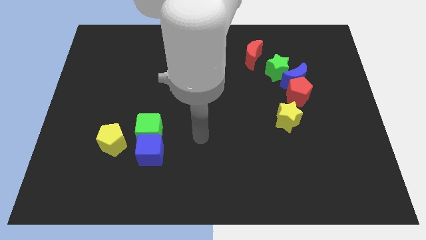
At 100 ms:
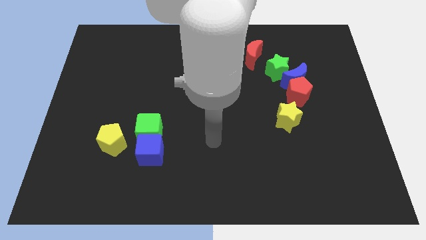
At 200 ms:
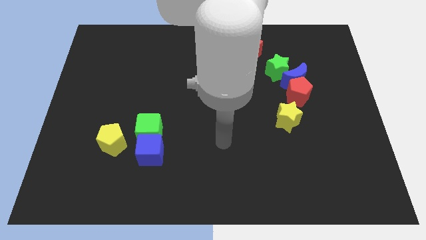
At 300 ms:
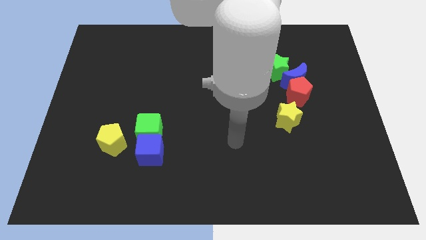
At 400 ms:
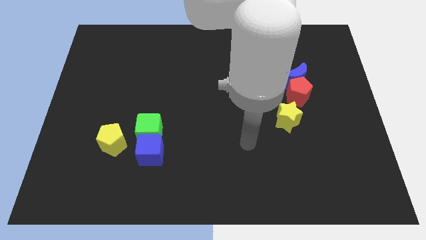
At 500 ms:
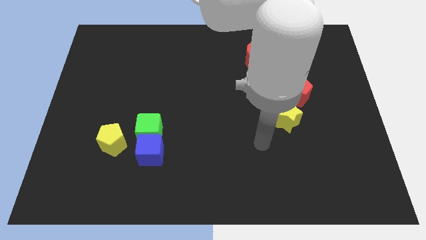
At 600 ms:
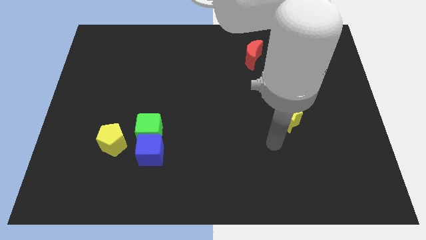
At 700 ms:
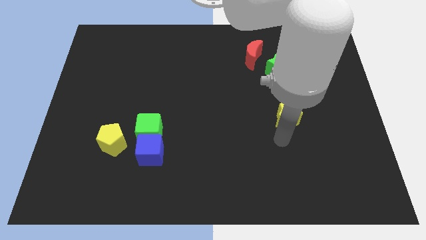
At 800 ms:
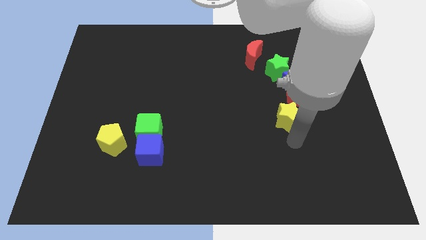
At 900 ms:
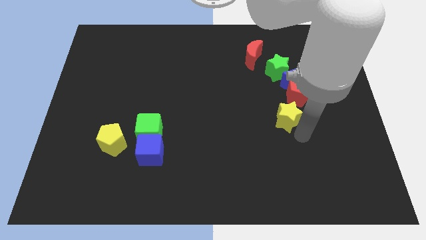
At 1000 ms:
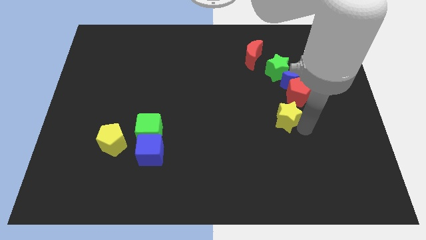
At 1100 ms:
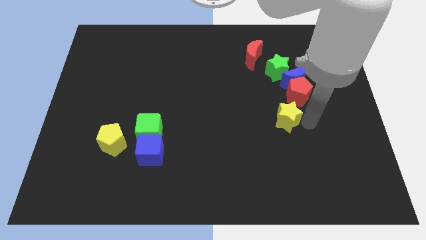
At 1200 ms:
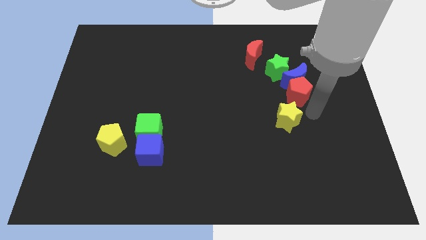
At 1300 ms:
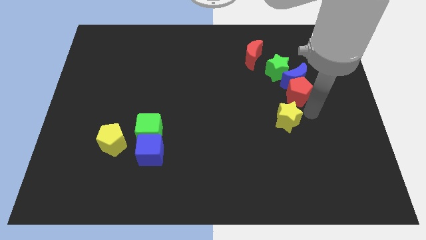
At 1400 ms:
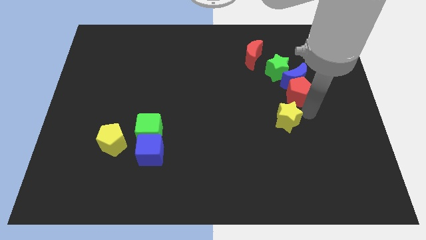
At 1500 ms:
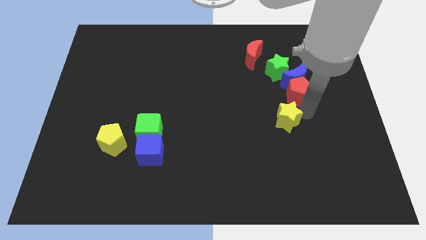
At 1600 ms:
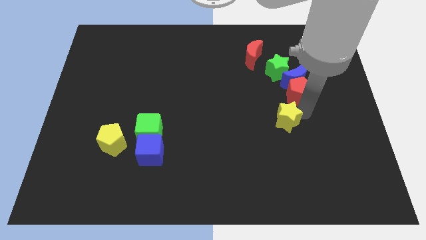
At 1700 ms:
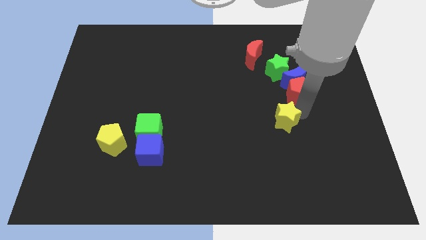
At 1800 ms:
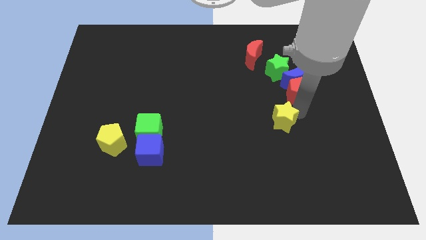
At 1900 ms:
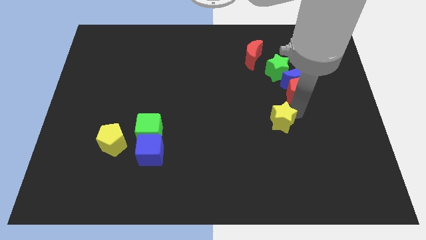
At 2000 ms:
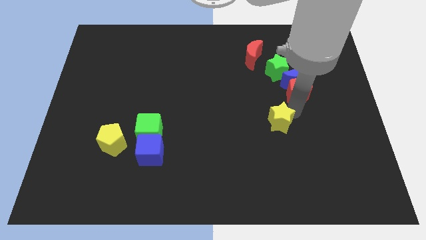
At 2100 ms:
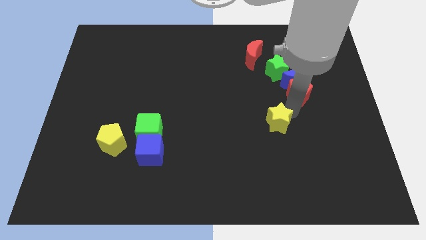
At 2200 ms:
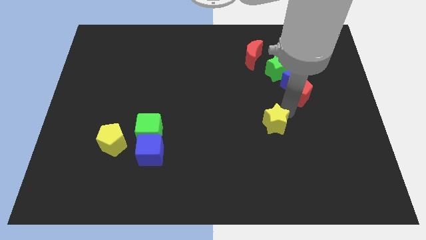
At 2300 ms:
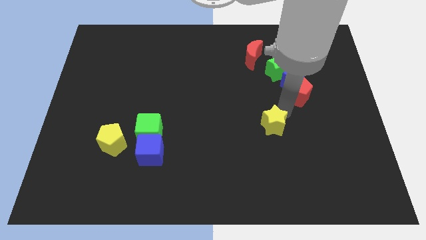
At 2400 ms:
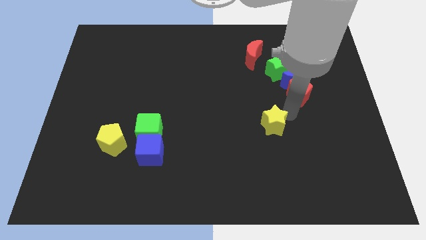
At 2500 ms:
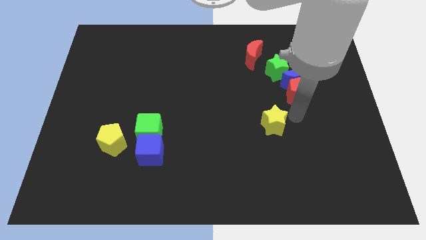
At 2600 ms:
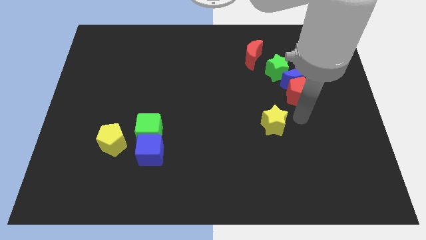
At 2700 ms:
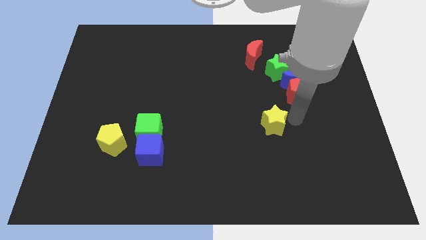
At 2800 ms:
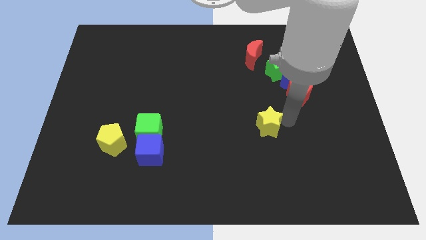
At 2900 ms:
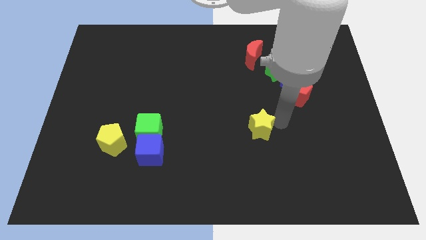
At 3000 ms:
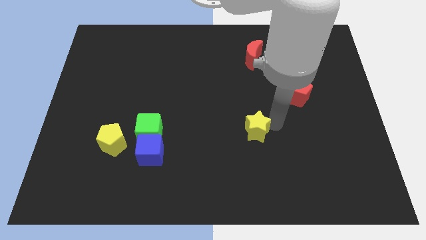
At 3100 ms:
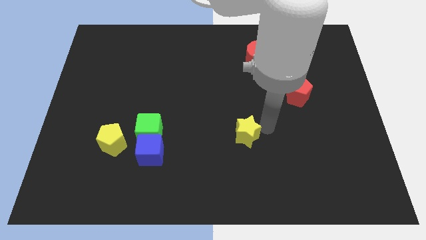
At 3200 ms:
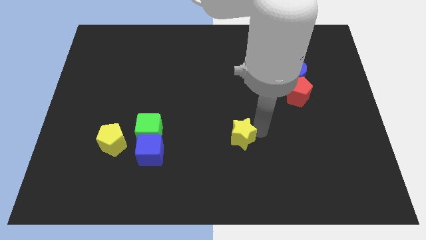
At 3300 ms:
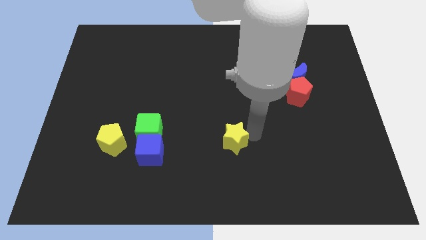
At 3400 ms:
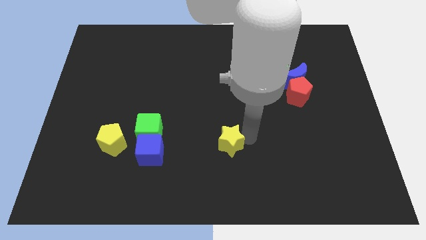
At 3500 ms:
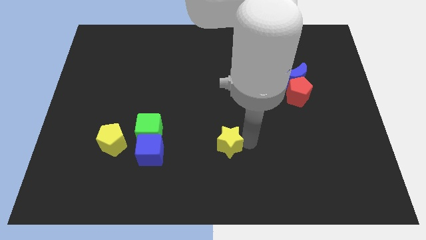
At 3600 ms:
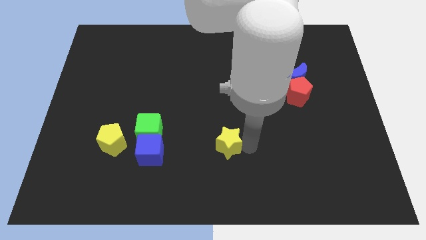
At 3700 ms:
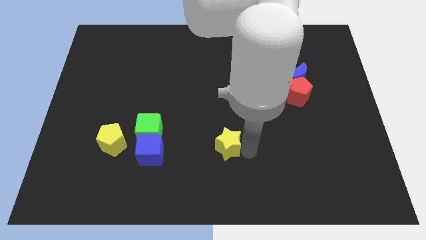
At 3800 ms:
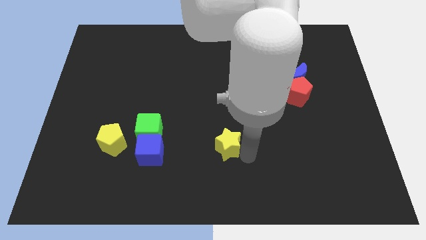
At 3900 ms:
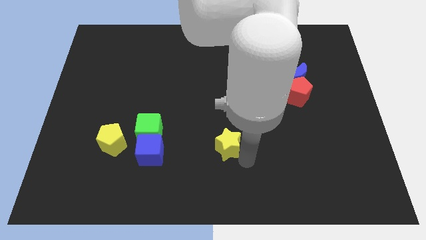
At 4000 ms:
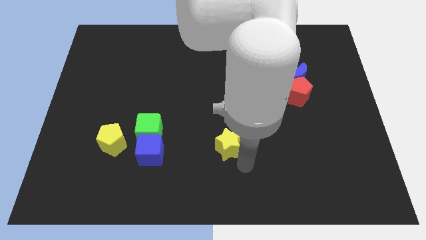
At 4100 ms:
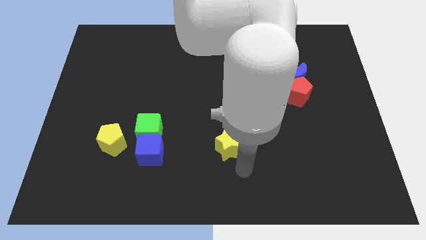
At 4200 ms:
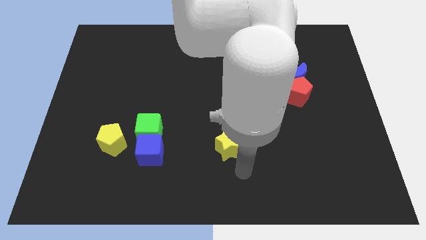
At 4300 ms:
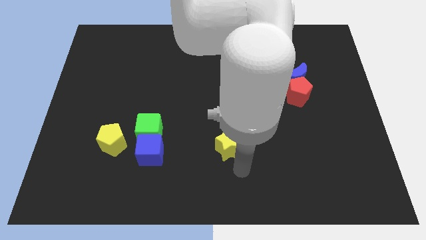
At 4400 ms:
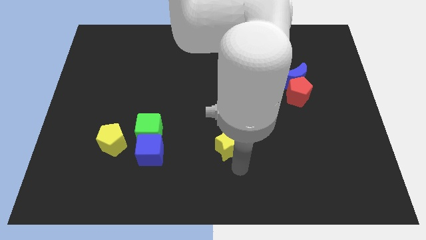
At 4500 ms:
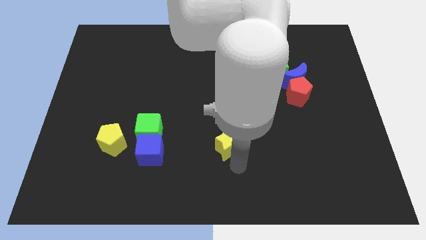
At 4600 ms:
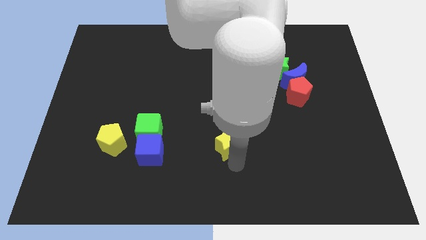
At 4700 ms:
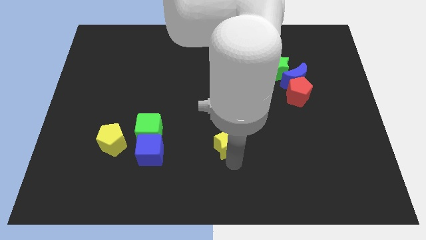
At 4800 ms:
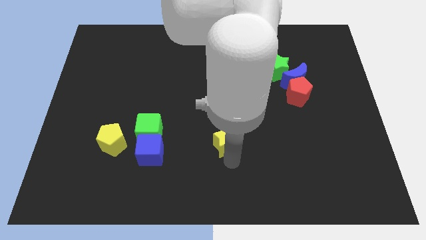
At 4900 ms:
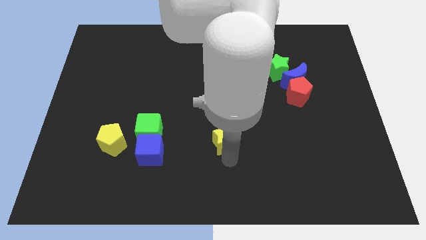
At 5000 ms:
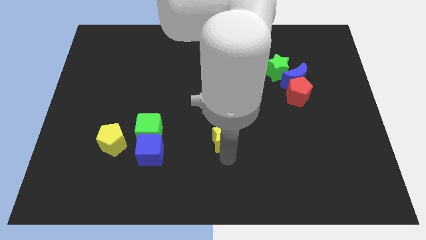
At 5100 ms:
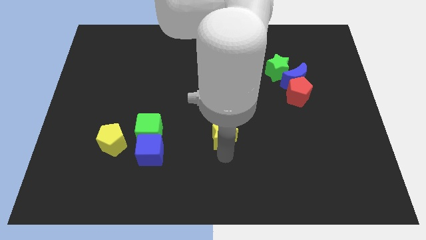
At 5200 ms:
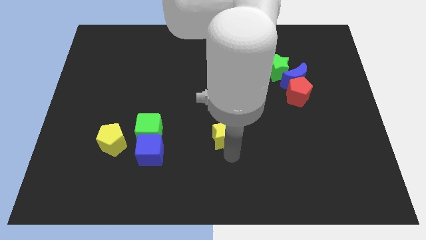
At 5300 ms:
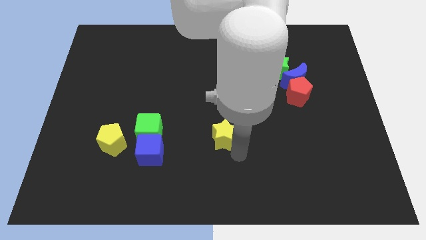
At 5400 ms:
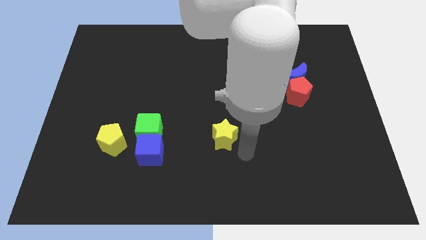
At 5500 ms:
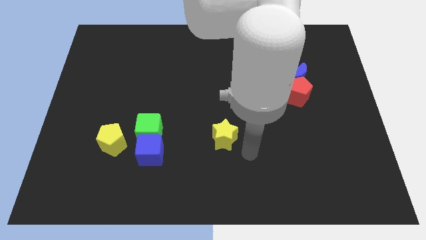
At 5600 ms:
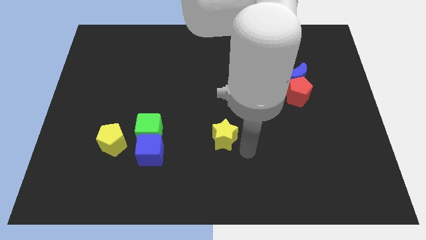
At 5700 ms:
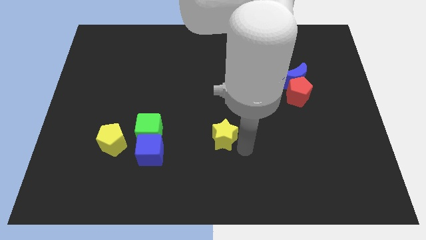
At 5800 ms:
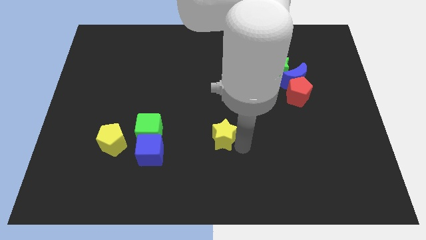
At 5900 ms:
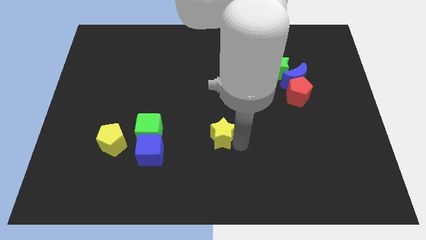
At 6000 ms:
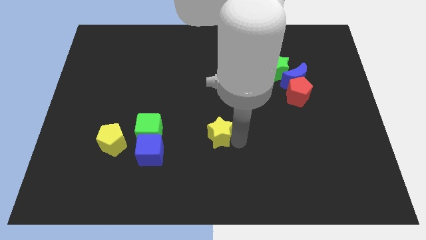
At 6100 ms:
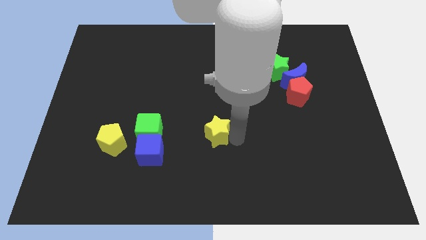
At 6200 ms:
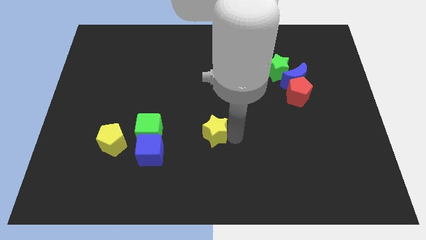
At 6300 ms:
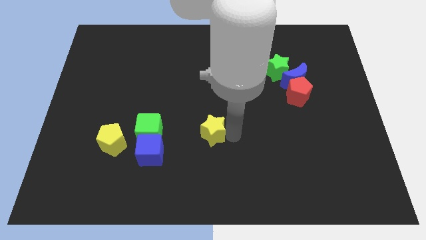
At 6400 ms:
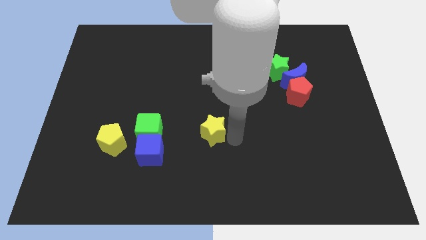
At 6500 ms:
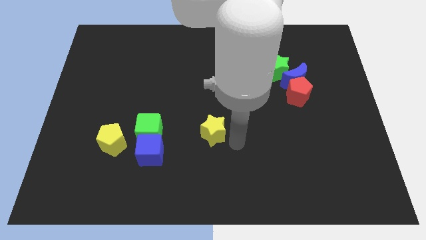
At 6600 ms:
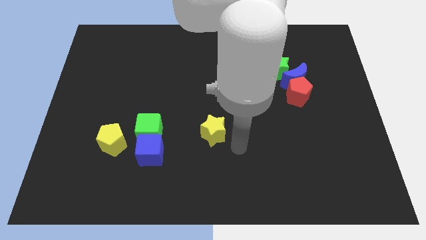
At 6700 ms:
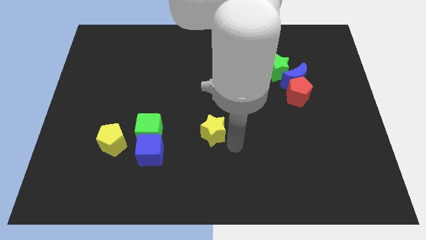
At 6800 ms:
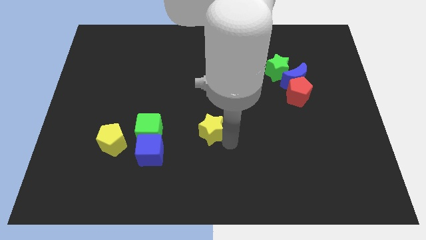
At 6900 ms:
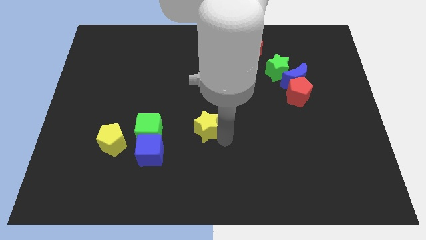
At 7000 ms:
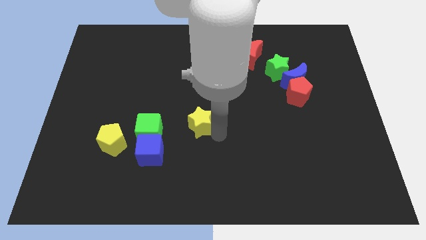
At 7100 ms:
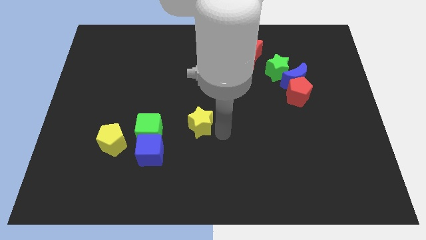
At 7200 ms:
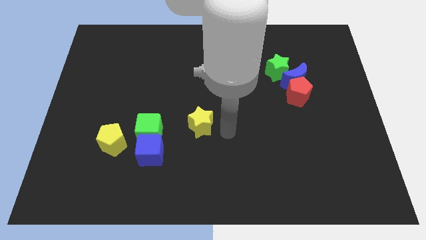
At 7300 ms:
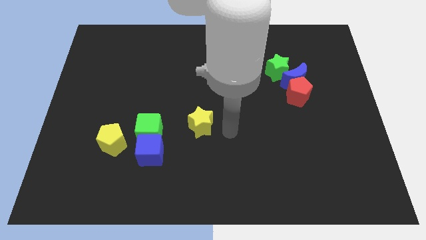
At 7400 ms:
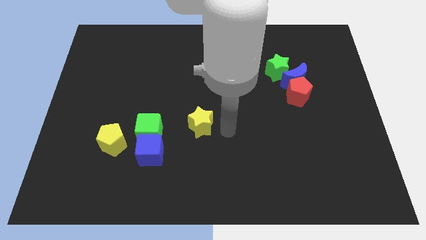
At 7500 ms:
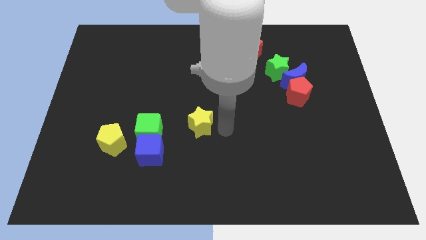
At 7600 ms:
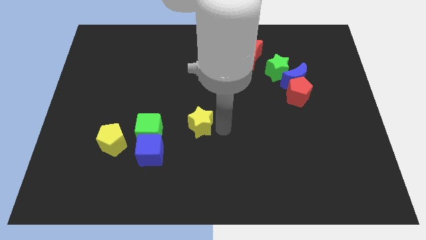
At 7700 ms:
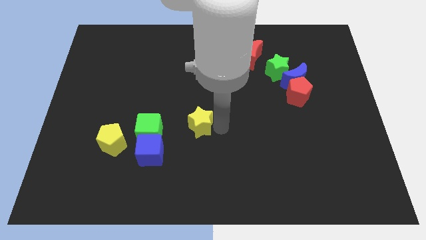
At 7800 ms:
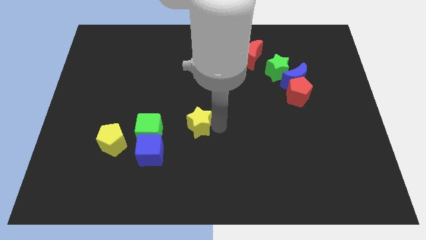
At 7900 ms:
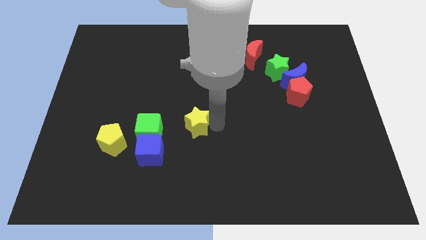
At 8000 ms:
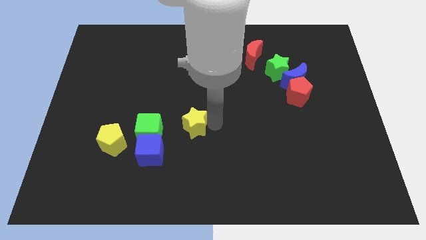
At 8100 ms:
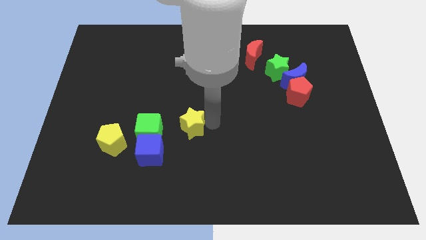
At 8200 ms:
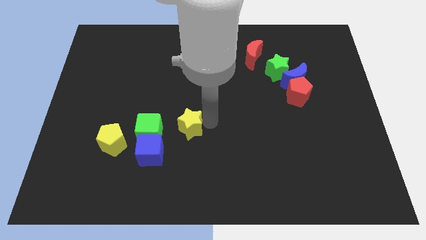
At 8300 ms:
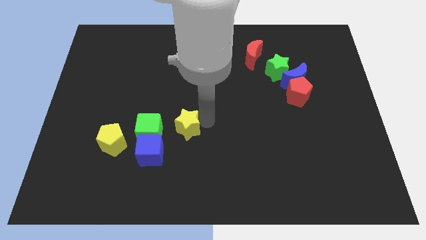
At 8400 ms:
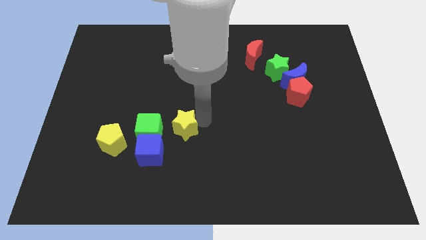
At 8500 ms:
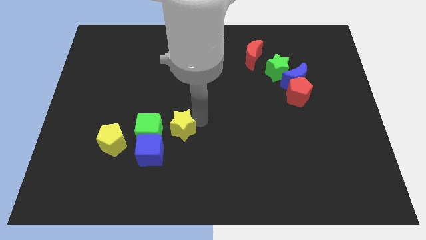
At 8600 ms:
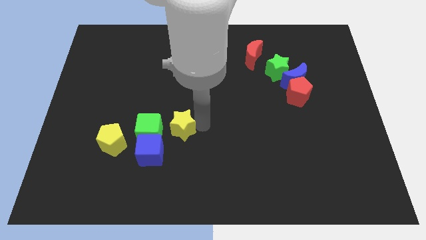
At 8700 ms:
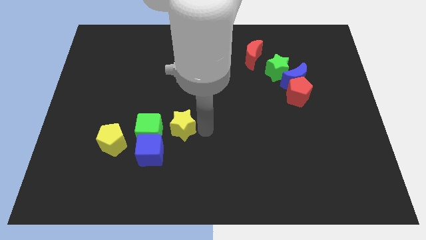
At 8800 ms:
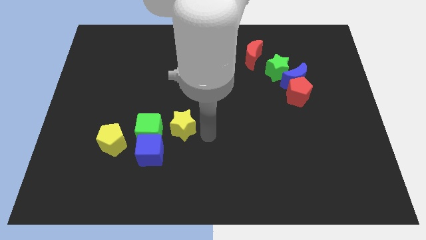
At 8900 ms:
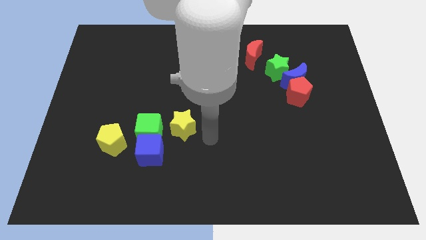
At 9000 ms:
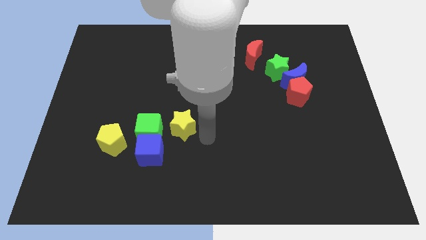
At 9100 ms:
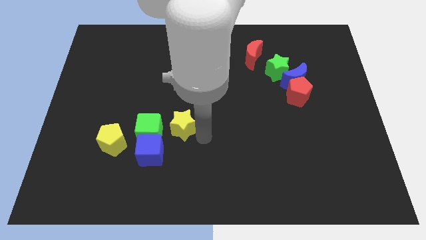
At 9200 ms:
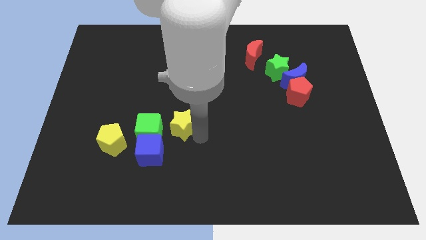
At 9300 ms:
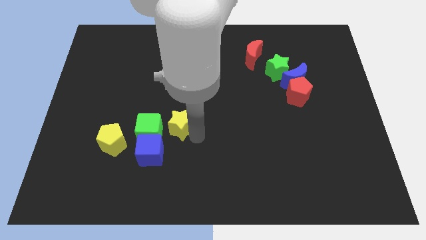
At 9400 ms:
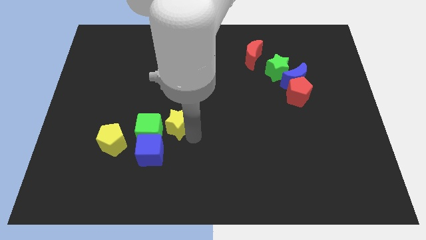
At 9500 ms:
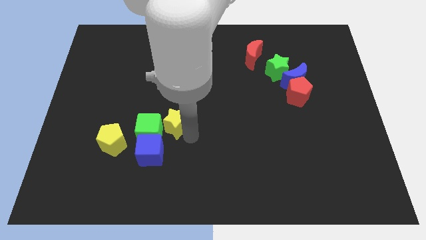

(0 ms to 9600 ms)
put the yellow star close to the green cube
